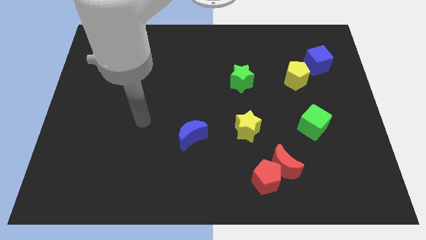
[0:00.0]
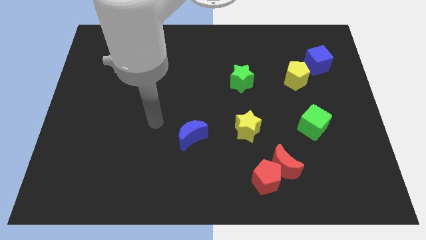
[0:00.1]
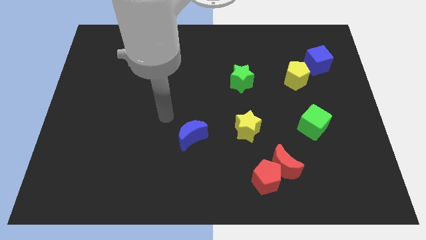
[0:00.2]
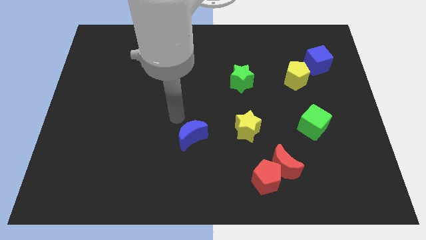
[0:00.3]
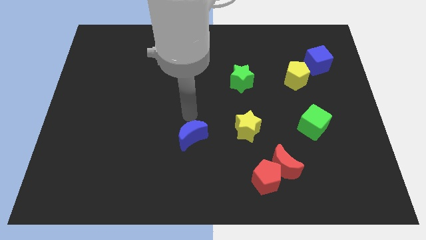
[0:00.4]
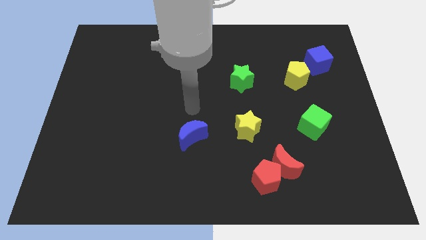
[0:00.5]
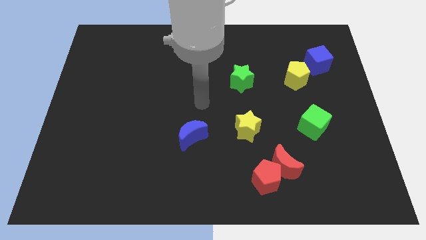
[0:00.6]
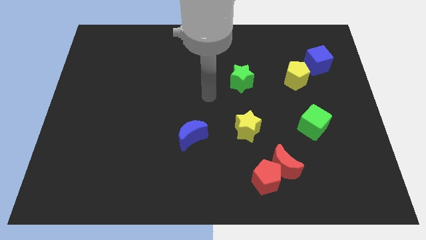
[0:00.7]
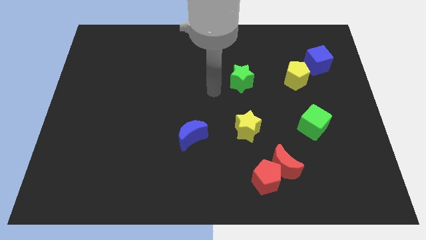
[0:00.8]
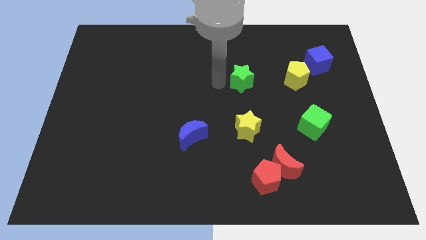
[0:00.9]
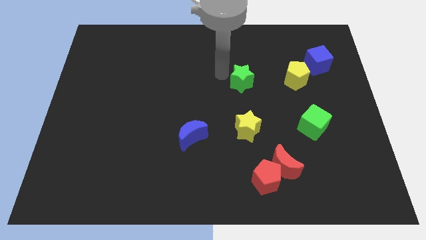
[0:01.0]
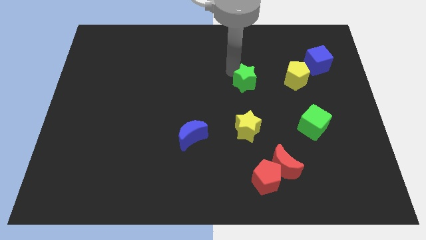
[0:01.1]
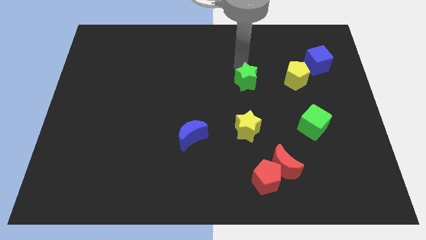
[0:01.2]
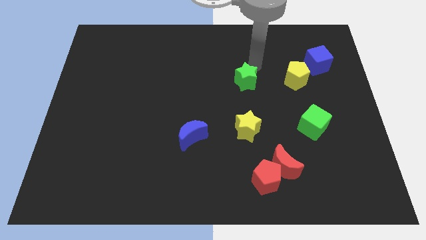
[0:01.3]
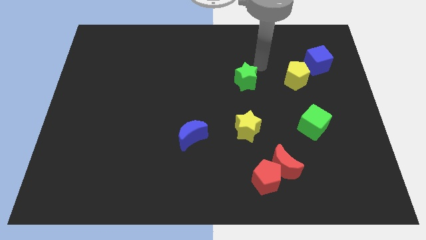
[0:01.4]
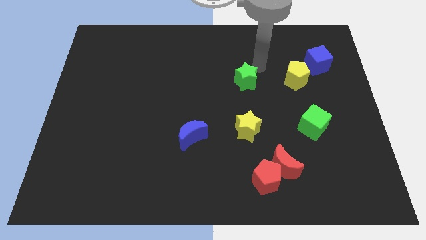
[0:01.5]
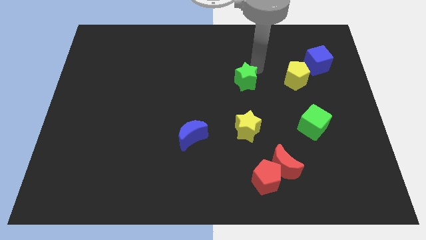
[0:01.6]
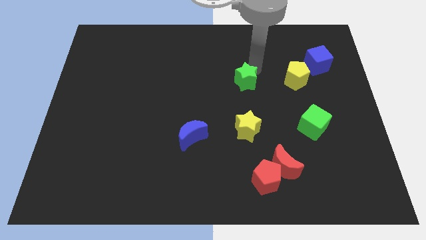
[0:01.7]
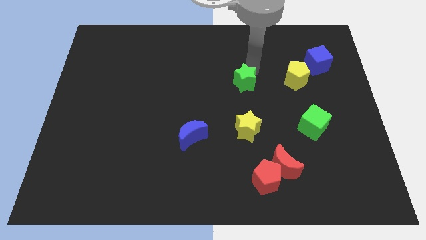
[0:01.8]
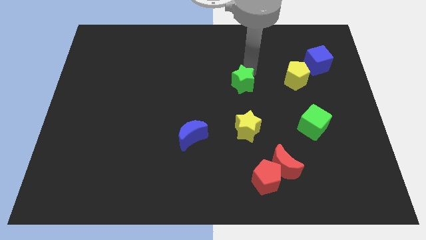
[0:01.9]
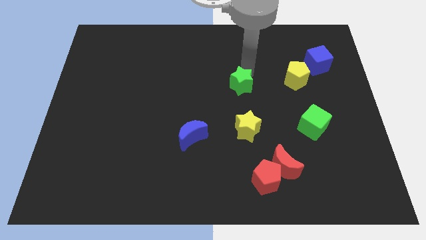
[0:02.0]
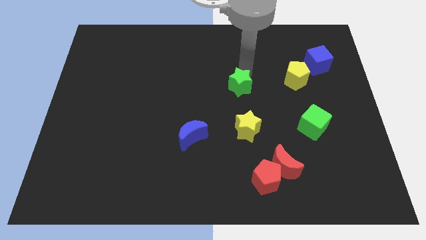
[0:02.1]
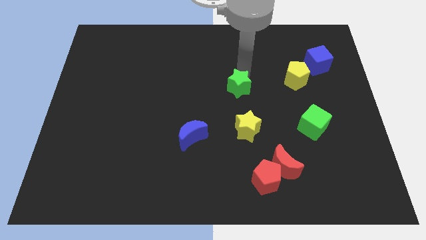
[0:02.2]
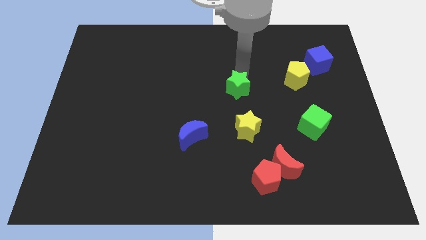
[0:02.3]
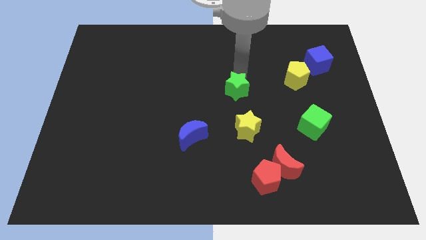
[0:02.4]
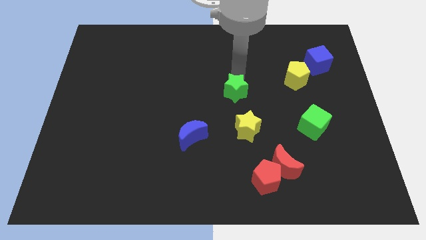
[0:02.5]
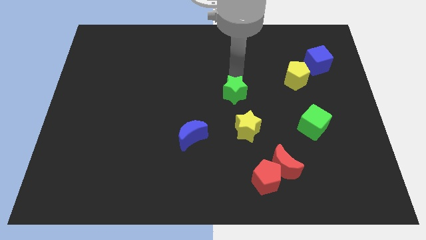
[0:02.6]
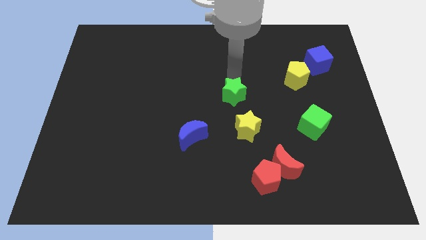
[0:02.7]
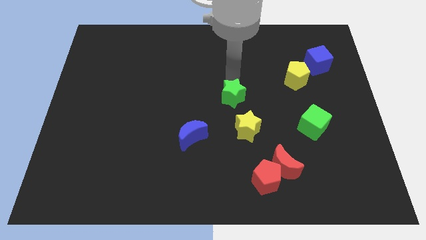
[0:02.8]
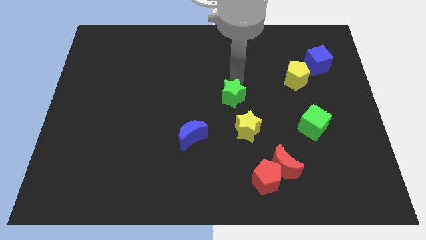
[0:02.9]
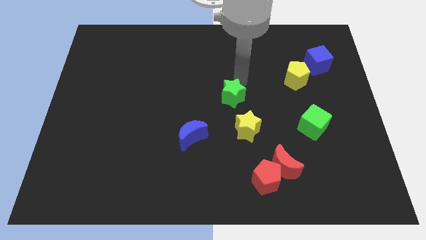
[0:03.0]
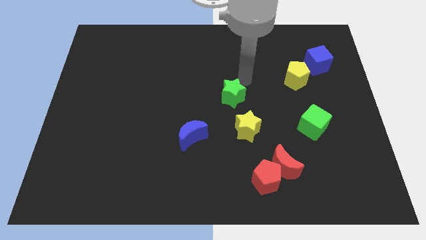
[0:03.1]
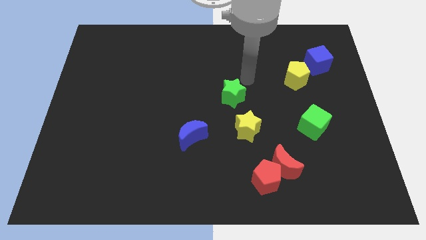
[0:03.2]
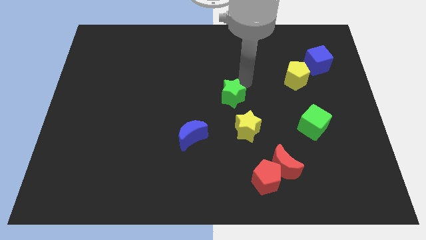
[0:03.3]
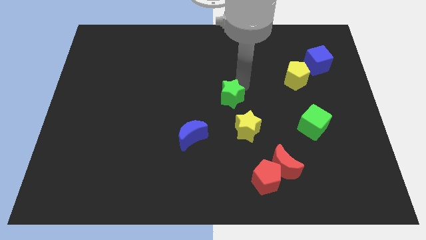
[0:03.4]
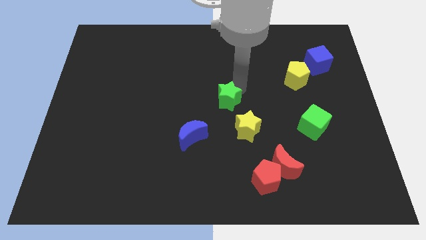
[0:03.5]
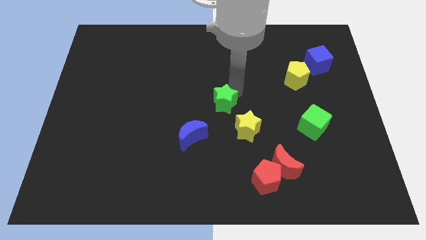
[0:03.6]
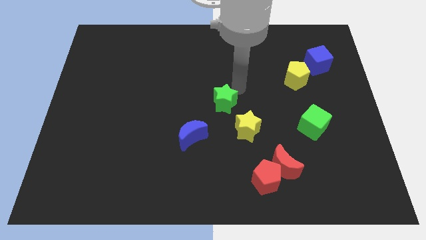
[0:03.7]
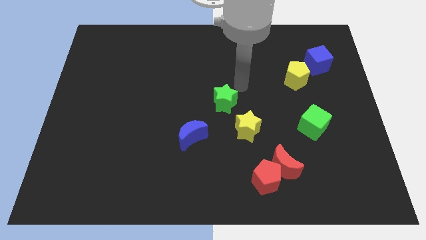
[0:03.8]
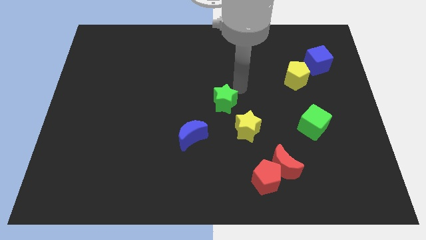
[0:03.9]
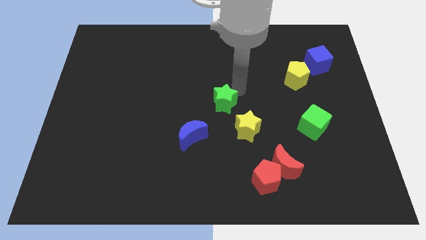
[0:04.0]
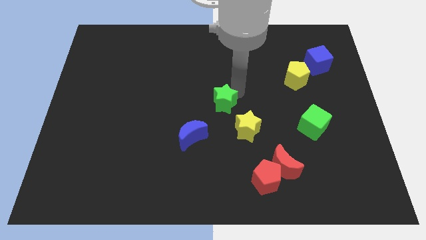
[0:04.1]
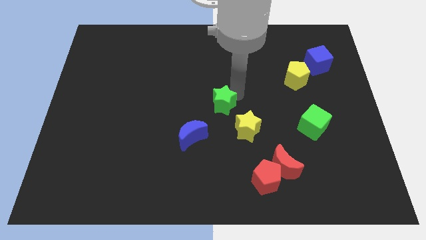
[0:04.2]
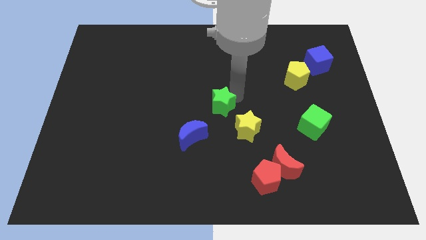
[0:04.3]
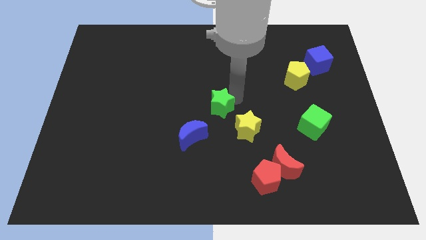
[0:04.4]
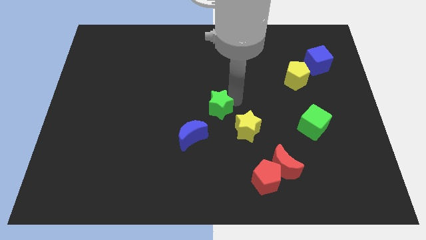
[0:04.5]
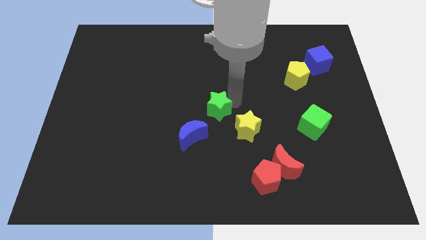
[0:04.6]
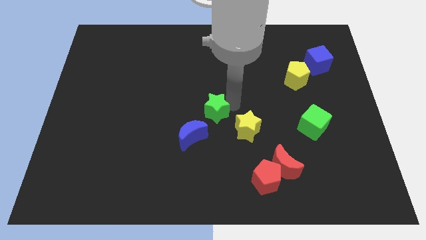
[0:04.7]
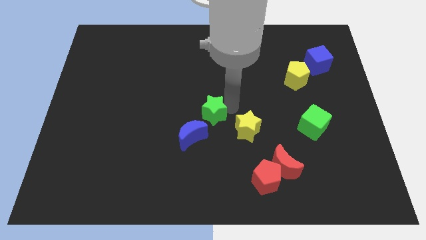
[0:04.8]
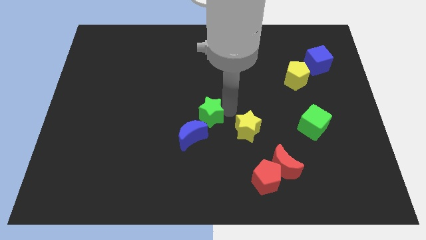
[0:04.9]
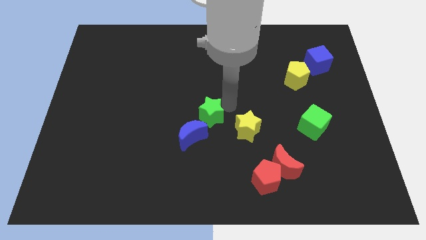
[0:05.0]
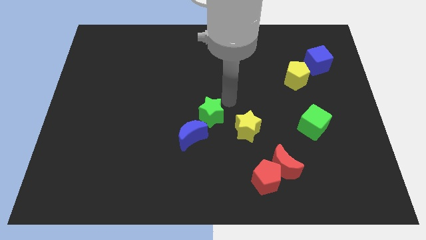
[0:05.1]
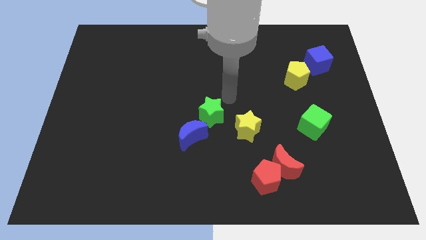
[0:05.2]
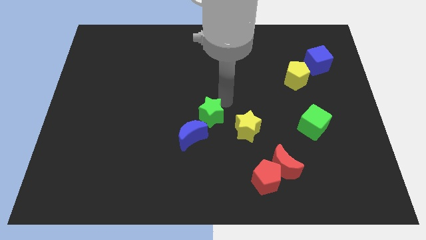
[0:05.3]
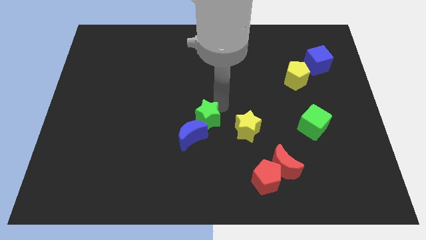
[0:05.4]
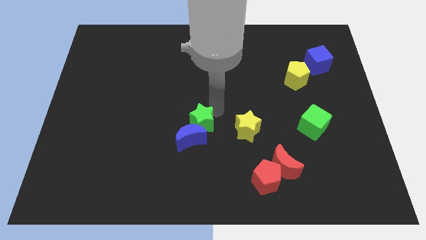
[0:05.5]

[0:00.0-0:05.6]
move the green star towards the blue moon

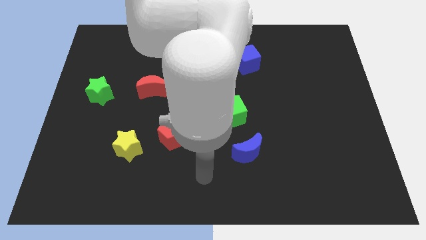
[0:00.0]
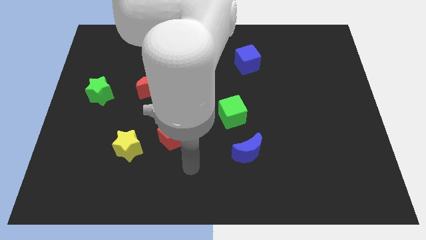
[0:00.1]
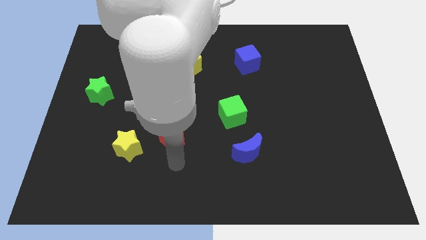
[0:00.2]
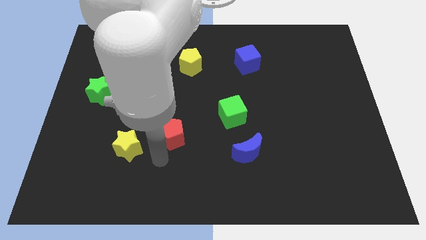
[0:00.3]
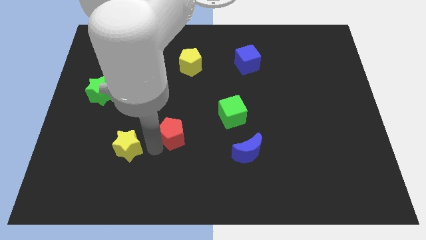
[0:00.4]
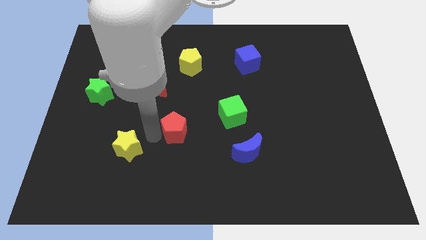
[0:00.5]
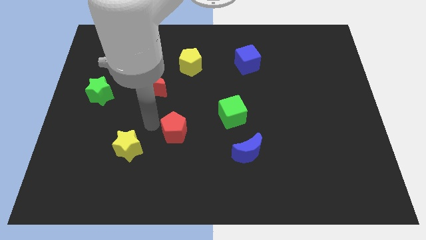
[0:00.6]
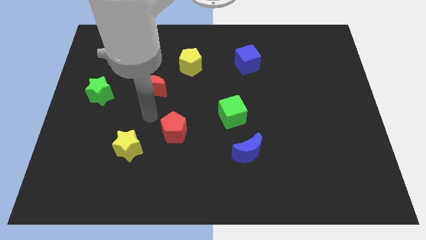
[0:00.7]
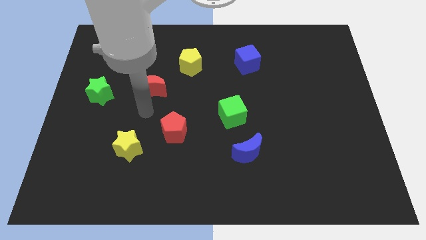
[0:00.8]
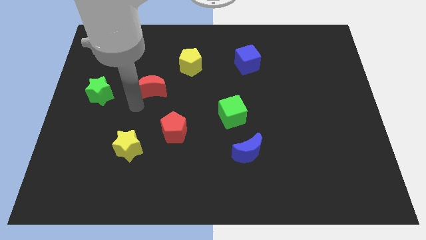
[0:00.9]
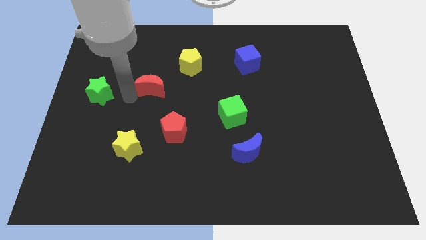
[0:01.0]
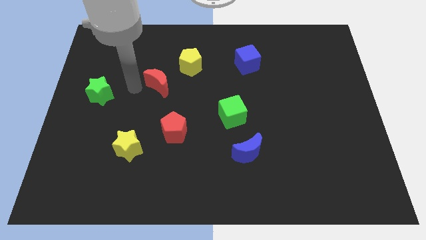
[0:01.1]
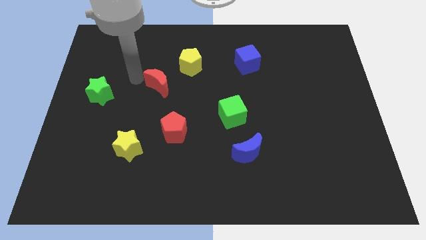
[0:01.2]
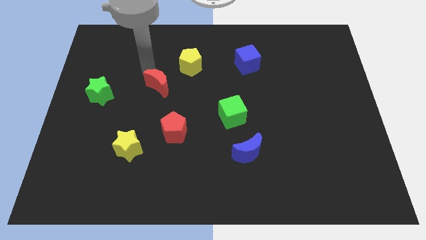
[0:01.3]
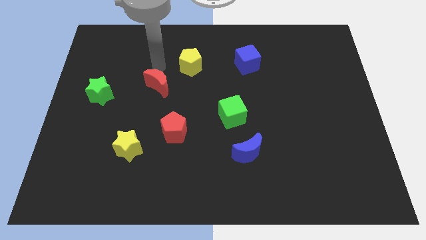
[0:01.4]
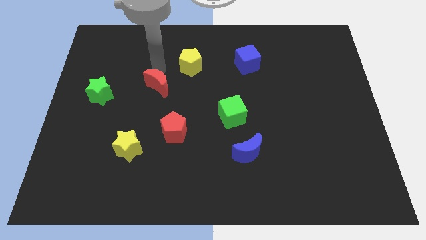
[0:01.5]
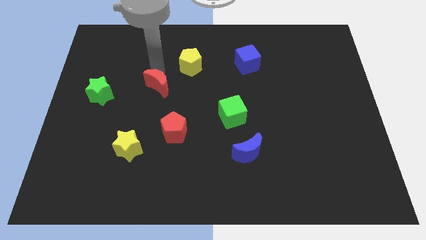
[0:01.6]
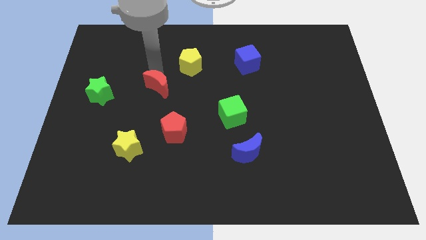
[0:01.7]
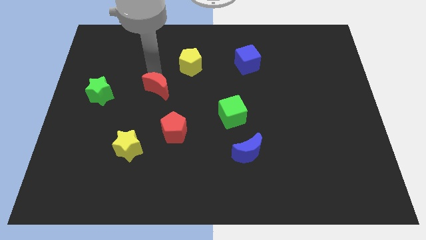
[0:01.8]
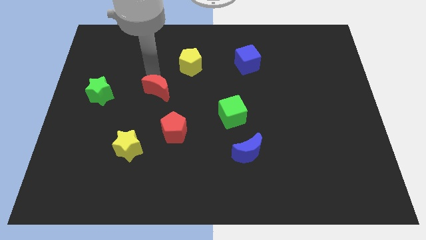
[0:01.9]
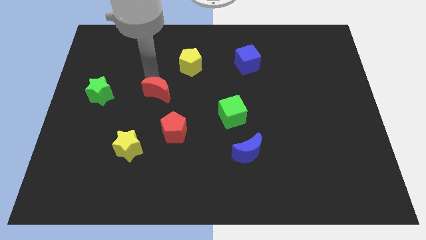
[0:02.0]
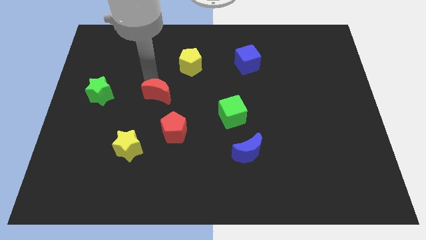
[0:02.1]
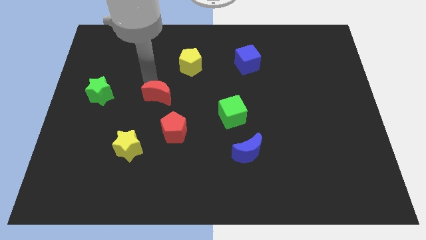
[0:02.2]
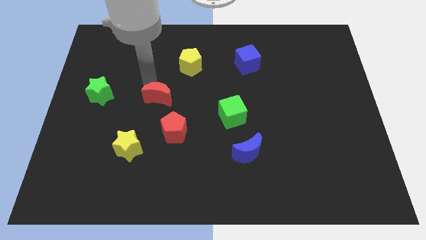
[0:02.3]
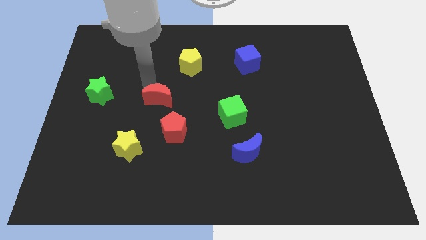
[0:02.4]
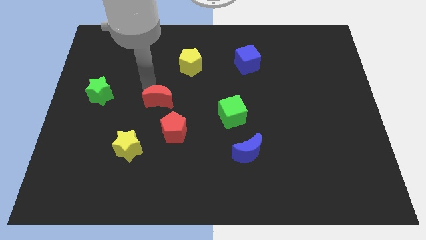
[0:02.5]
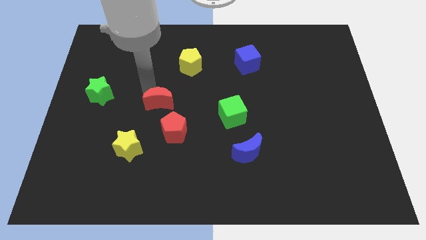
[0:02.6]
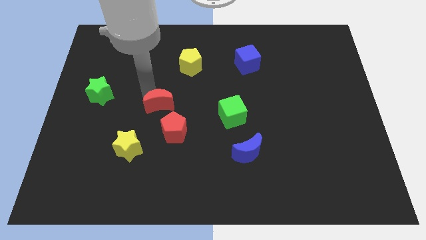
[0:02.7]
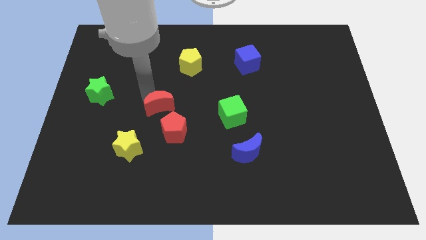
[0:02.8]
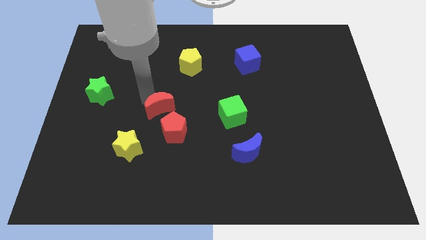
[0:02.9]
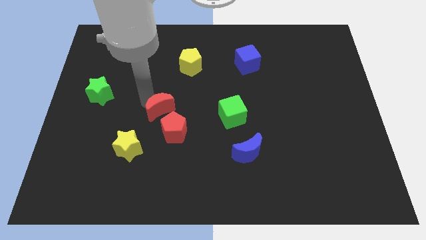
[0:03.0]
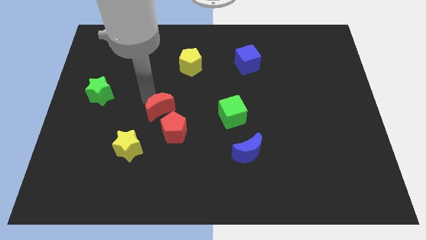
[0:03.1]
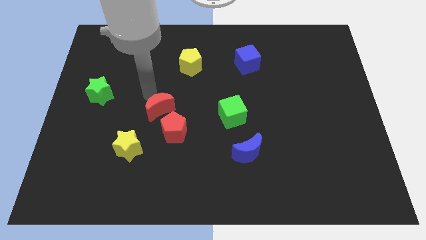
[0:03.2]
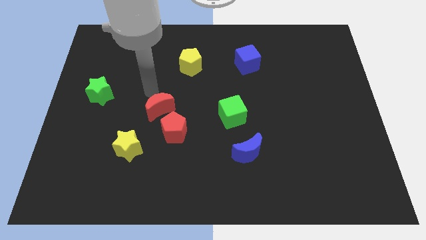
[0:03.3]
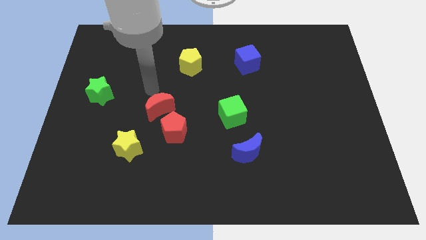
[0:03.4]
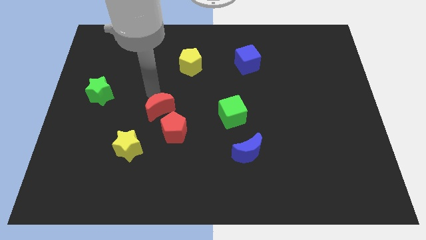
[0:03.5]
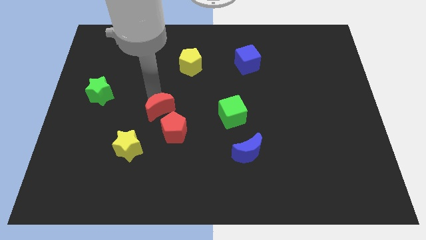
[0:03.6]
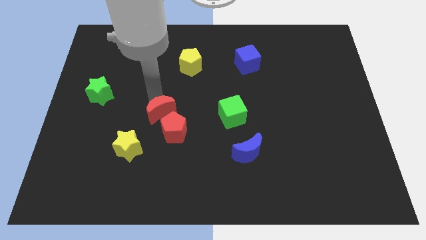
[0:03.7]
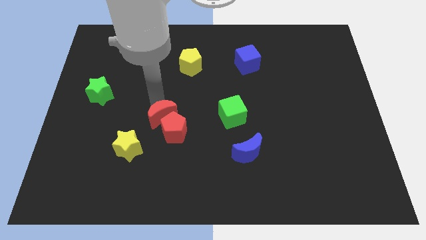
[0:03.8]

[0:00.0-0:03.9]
slide the red moon close to the red pentagon
